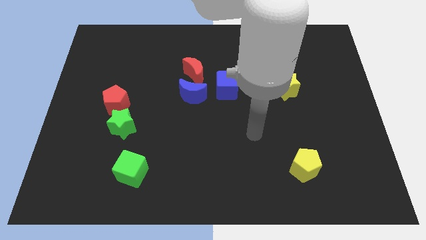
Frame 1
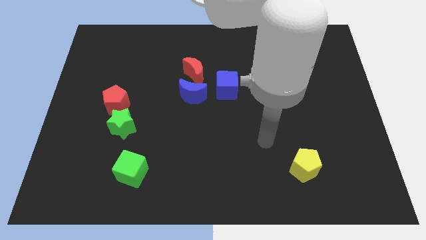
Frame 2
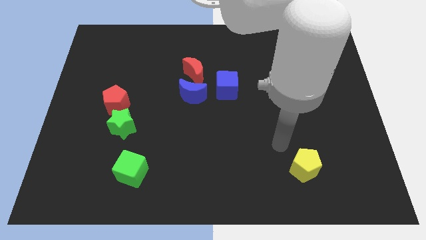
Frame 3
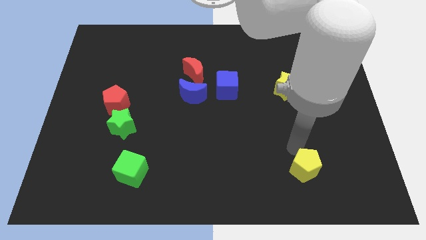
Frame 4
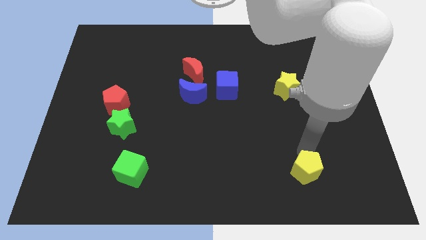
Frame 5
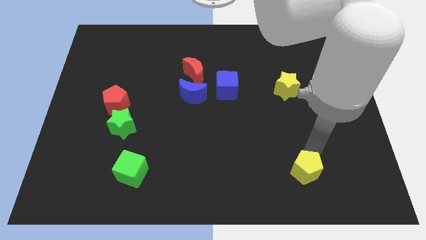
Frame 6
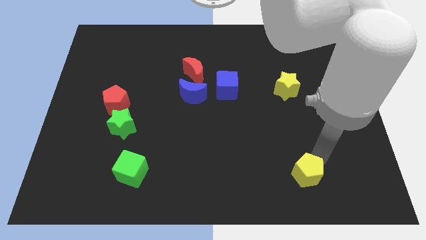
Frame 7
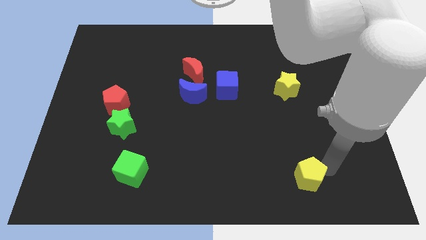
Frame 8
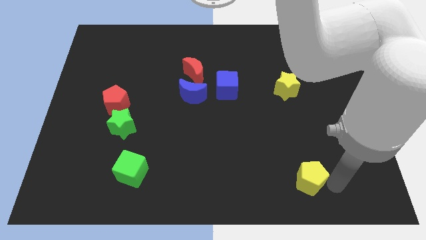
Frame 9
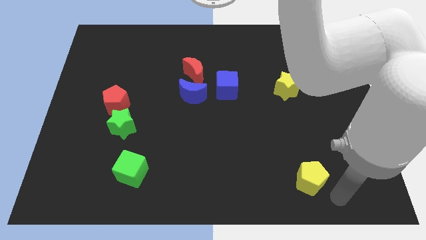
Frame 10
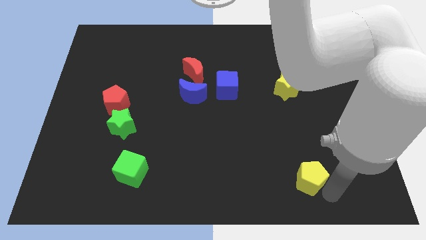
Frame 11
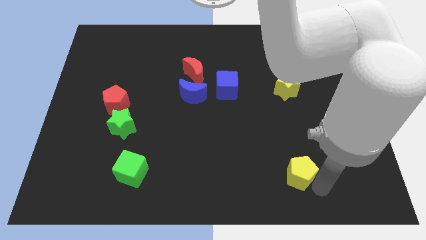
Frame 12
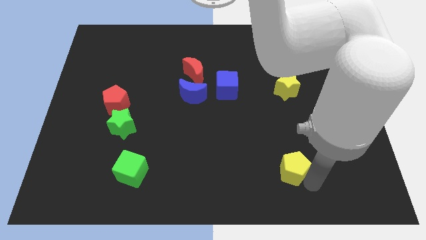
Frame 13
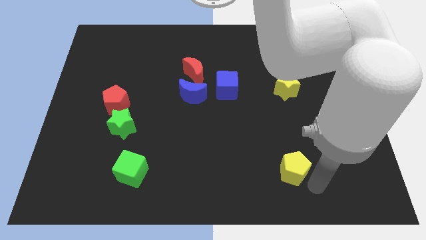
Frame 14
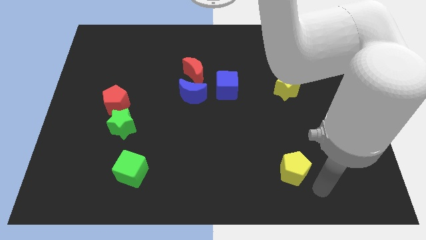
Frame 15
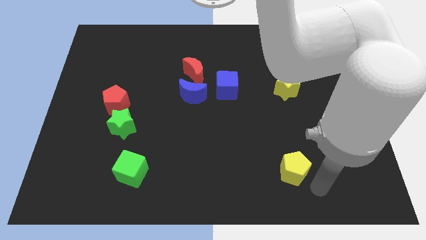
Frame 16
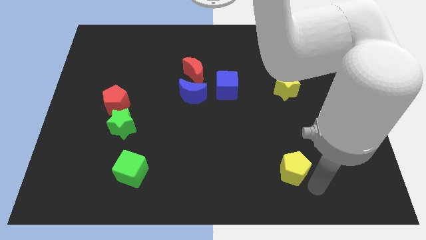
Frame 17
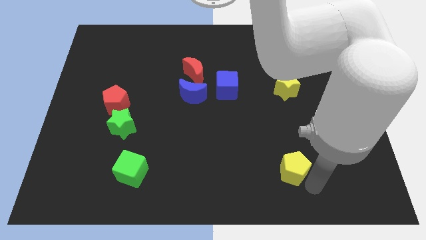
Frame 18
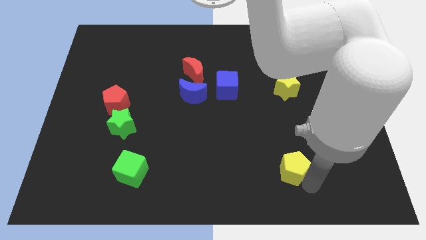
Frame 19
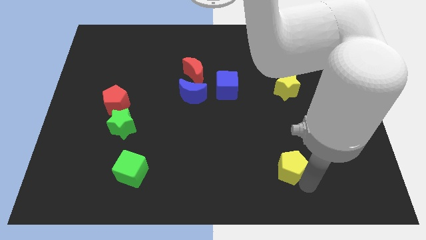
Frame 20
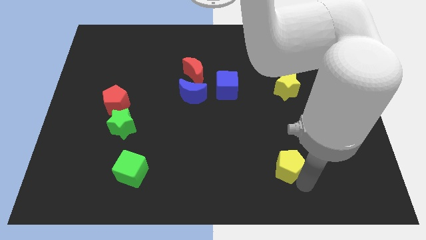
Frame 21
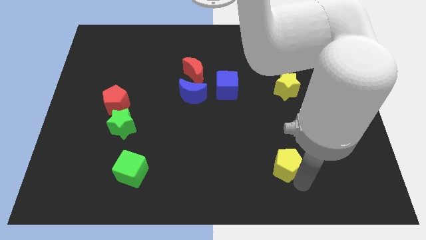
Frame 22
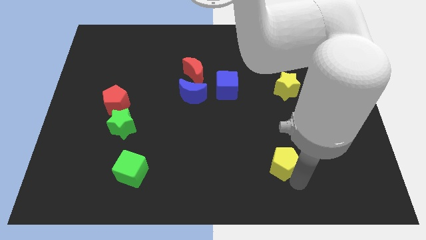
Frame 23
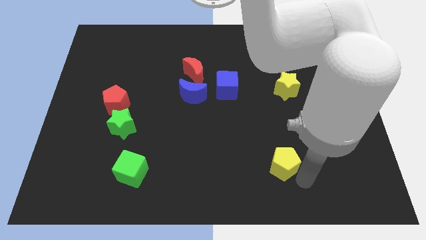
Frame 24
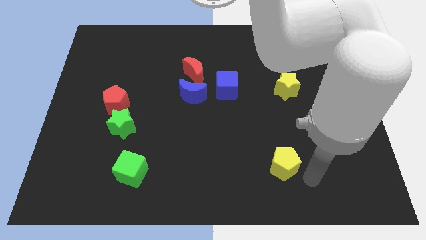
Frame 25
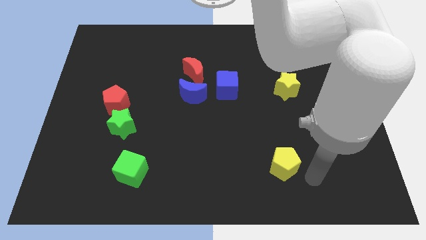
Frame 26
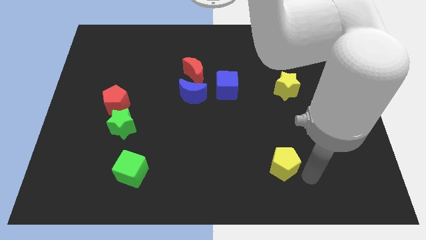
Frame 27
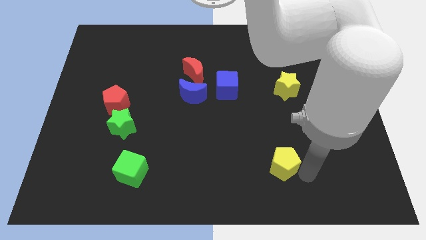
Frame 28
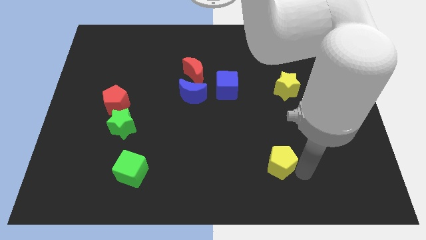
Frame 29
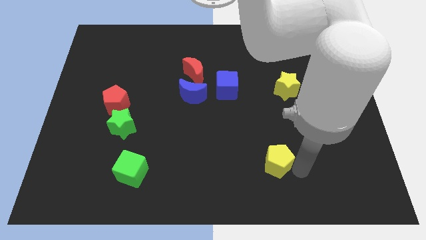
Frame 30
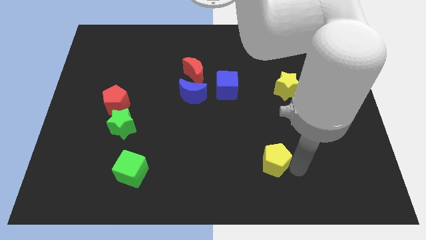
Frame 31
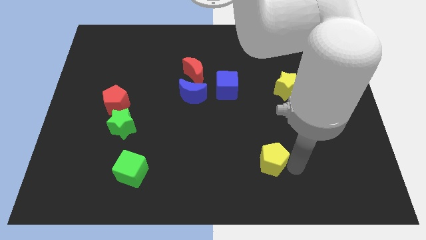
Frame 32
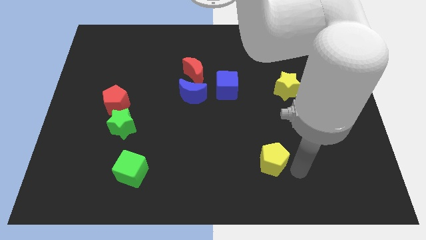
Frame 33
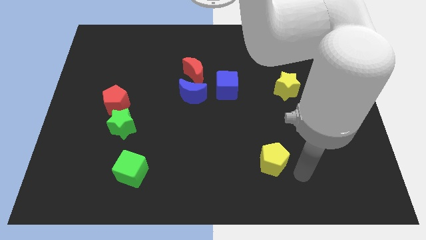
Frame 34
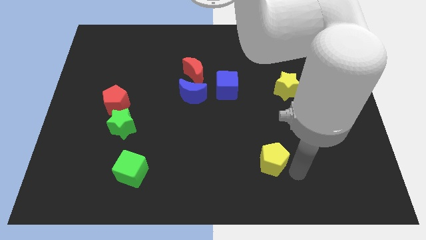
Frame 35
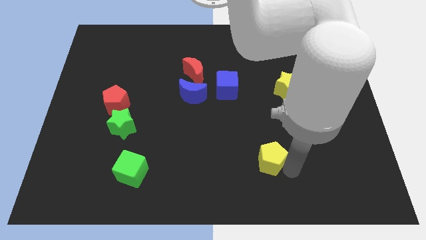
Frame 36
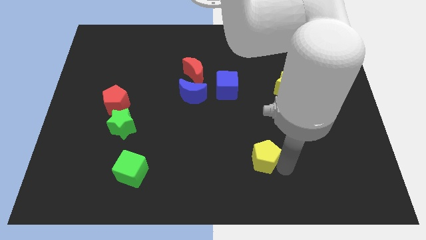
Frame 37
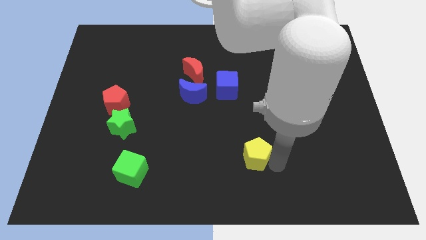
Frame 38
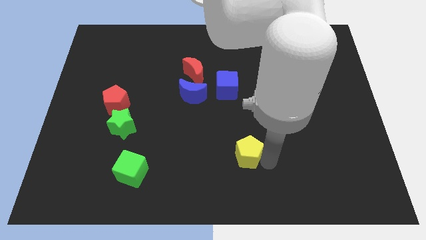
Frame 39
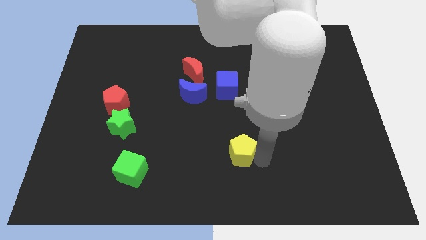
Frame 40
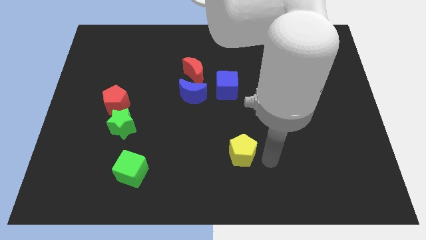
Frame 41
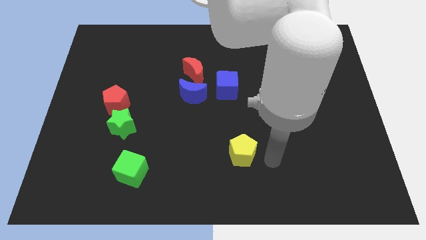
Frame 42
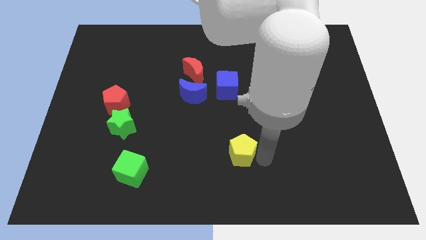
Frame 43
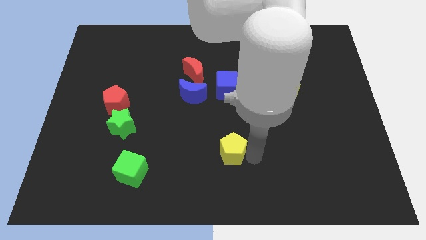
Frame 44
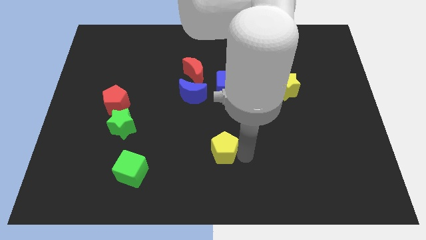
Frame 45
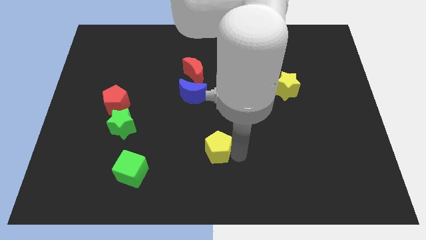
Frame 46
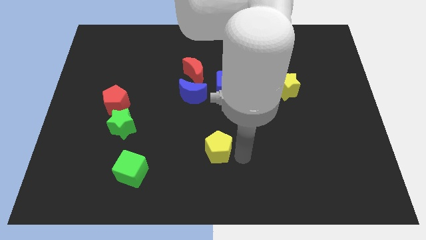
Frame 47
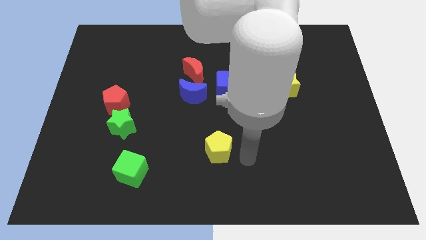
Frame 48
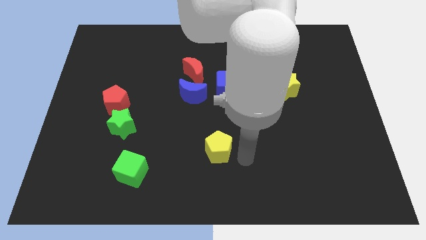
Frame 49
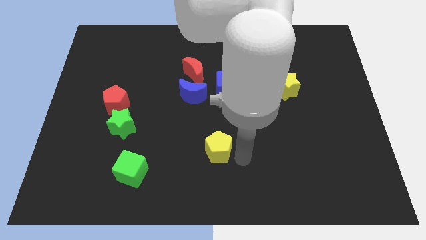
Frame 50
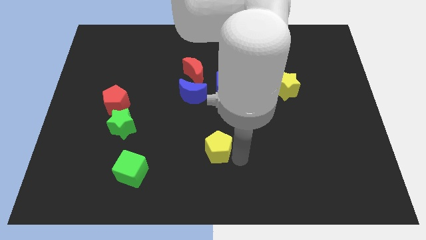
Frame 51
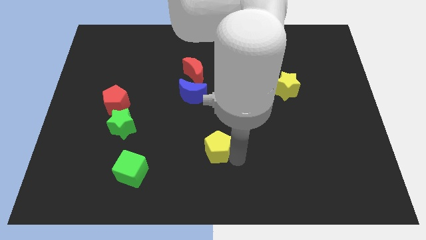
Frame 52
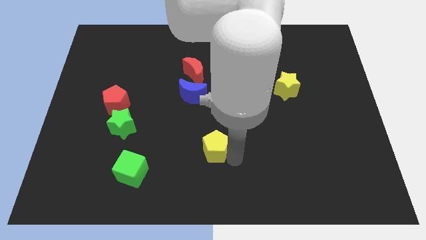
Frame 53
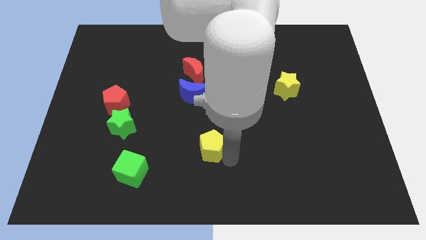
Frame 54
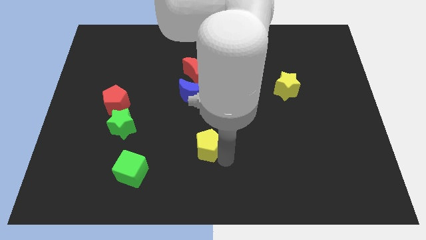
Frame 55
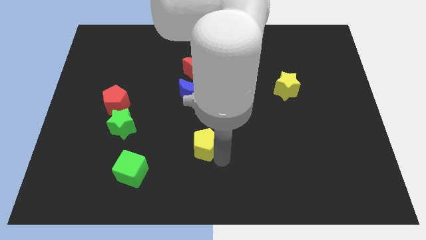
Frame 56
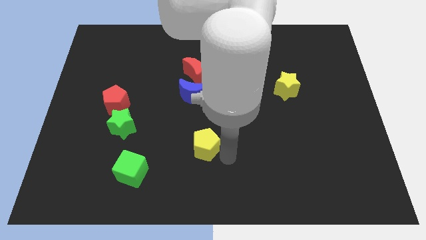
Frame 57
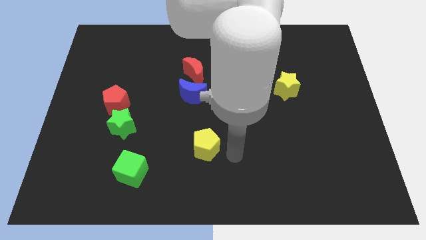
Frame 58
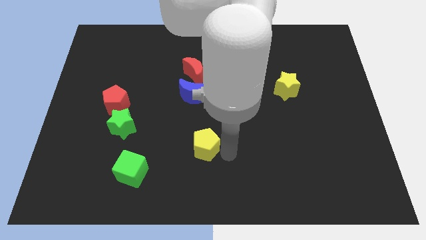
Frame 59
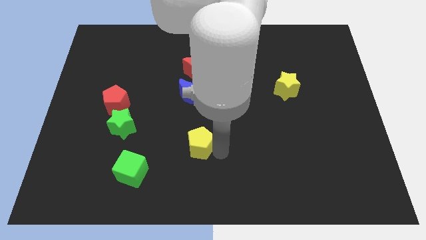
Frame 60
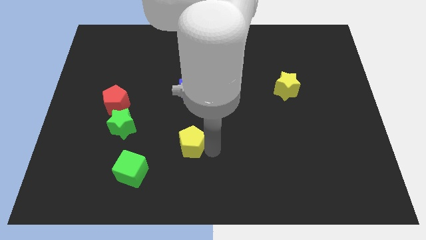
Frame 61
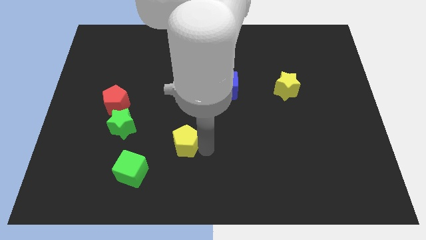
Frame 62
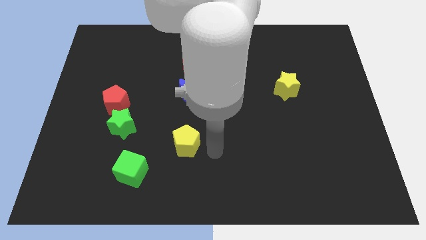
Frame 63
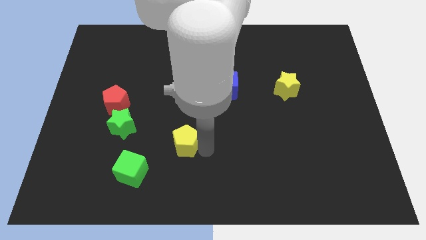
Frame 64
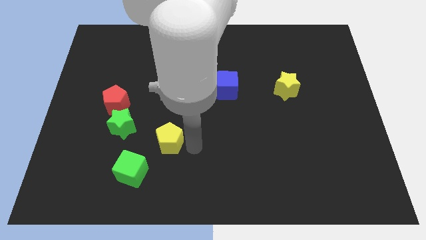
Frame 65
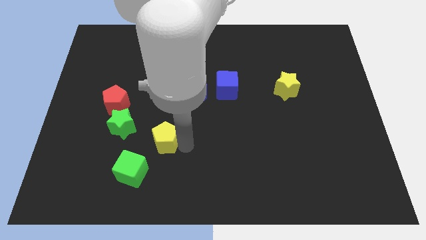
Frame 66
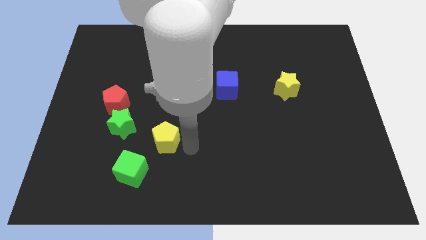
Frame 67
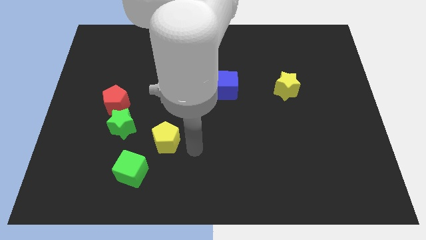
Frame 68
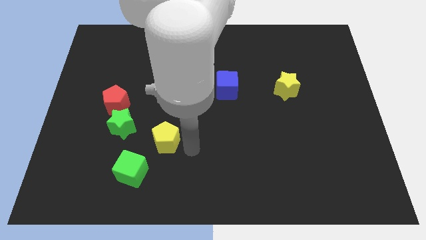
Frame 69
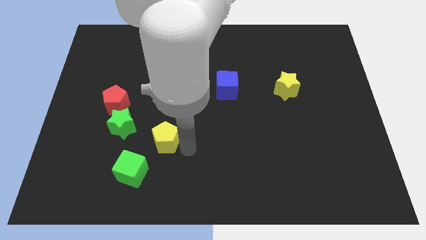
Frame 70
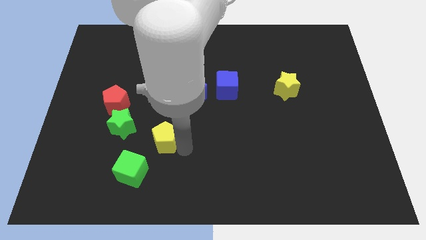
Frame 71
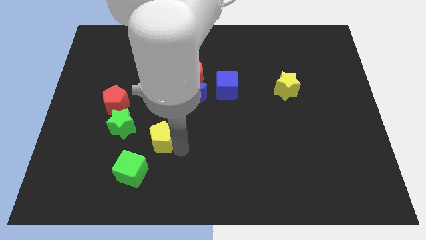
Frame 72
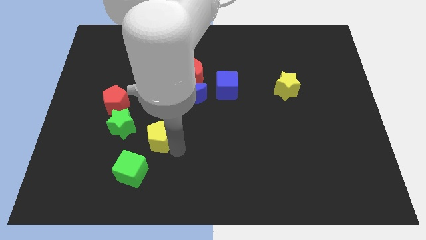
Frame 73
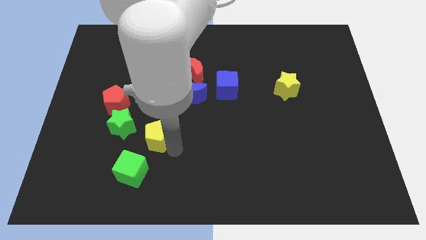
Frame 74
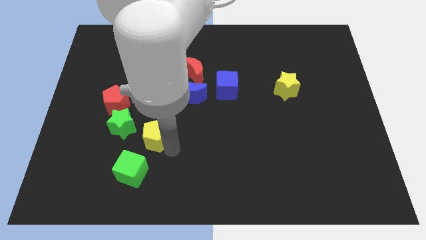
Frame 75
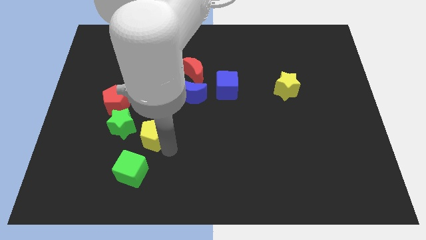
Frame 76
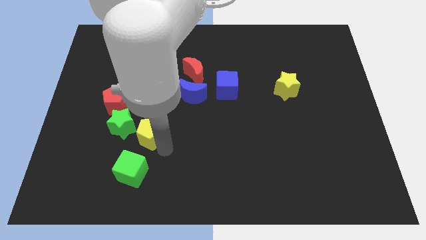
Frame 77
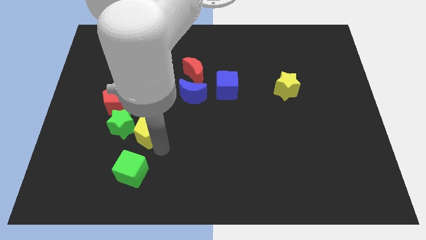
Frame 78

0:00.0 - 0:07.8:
slide the yellow pentagon to the green star
